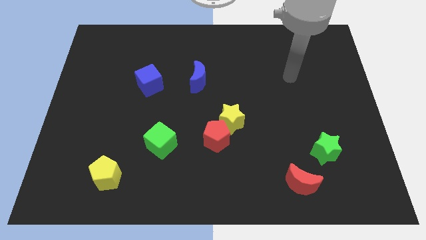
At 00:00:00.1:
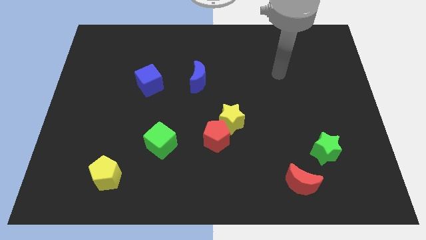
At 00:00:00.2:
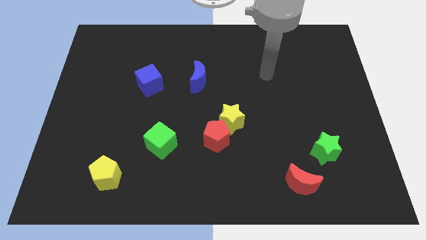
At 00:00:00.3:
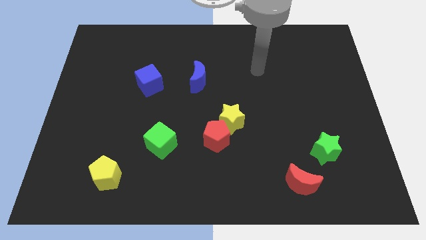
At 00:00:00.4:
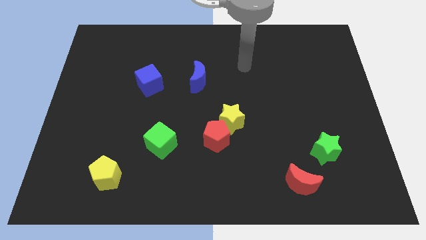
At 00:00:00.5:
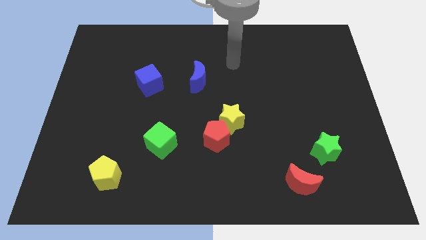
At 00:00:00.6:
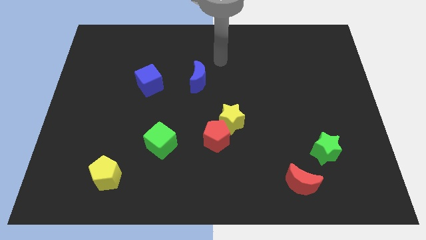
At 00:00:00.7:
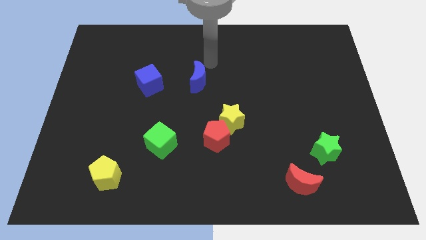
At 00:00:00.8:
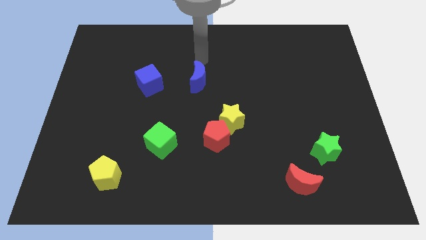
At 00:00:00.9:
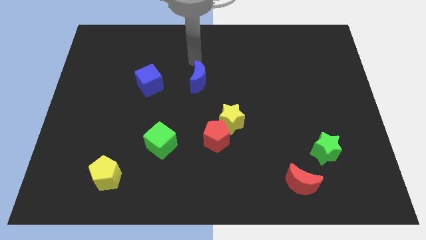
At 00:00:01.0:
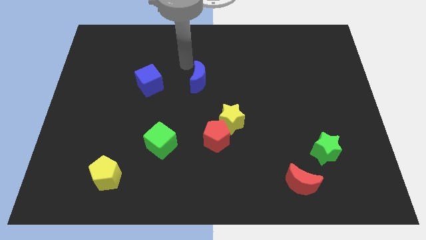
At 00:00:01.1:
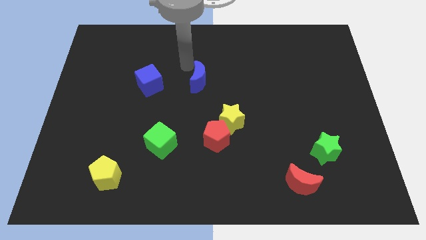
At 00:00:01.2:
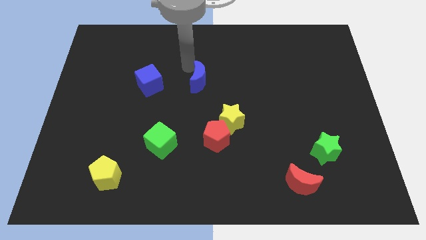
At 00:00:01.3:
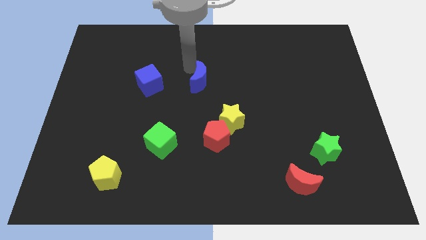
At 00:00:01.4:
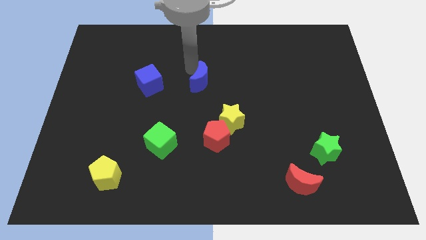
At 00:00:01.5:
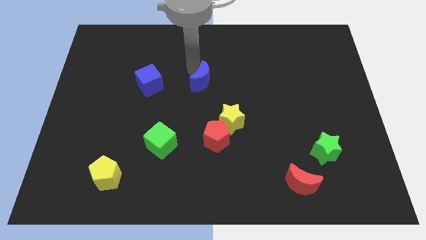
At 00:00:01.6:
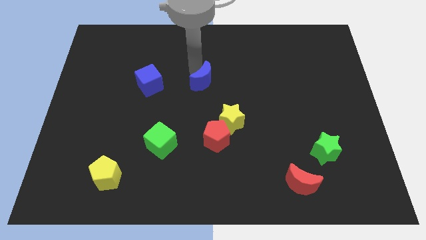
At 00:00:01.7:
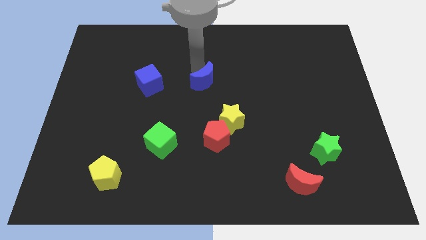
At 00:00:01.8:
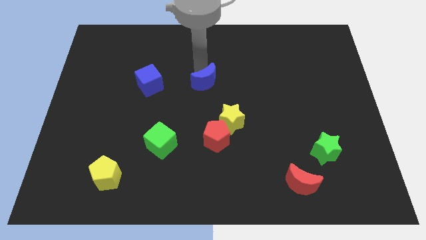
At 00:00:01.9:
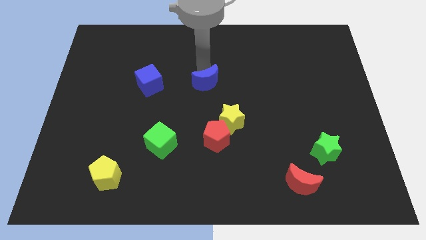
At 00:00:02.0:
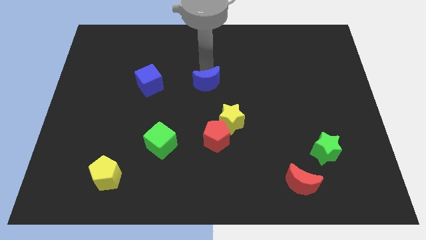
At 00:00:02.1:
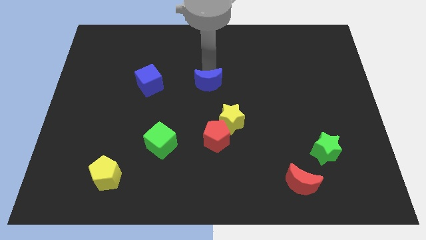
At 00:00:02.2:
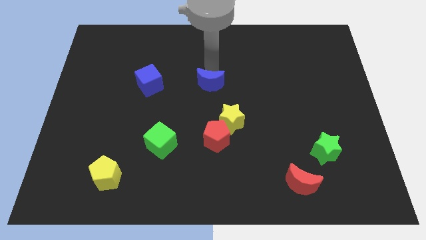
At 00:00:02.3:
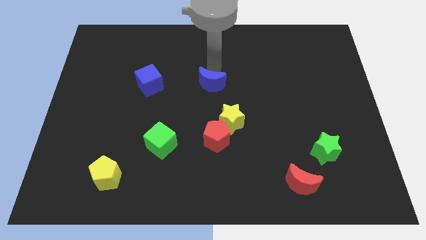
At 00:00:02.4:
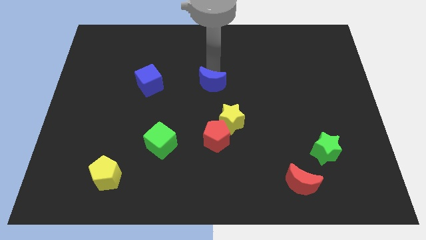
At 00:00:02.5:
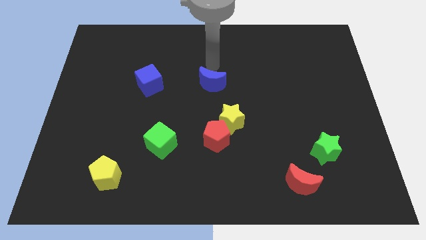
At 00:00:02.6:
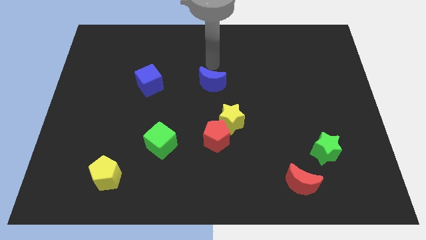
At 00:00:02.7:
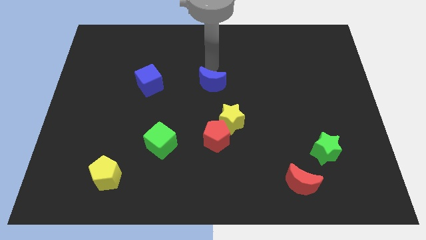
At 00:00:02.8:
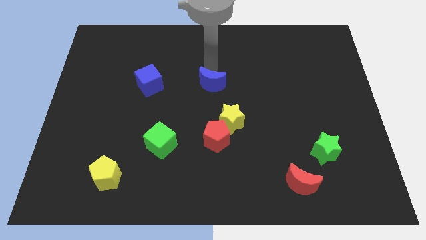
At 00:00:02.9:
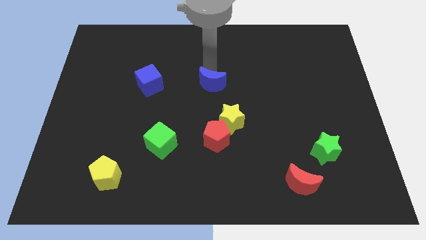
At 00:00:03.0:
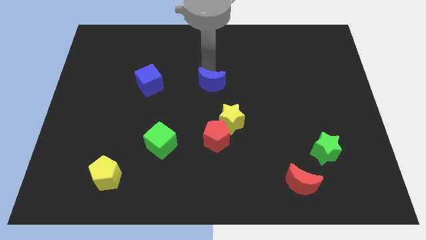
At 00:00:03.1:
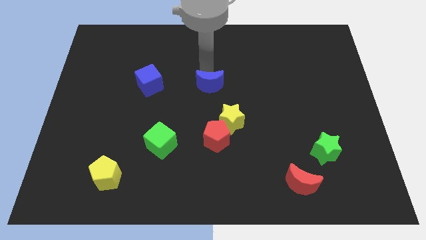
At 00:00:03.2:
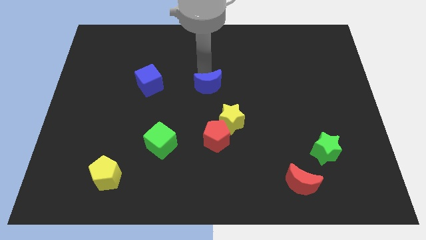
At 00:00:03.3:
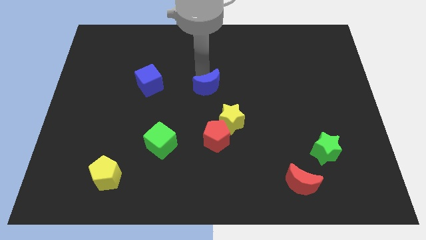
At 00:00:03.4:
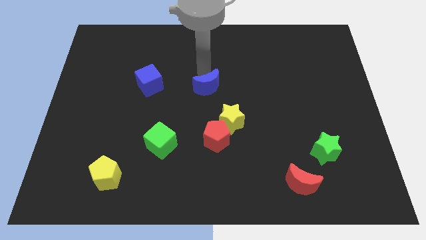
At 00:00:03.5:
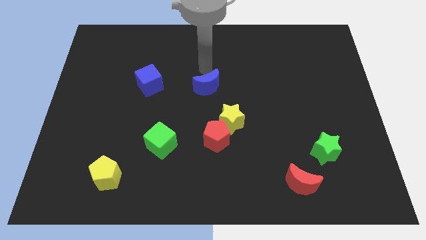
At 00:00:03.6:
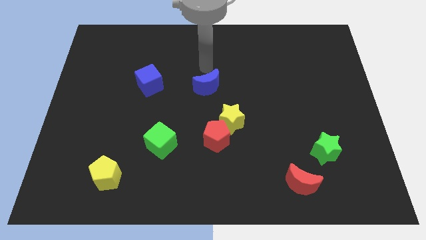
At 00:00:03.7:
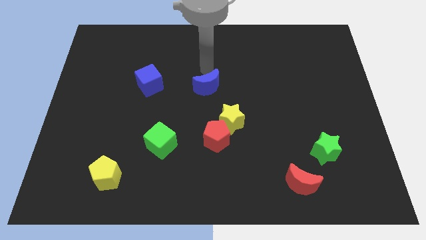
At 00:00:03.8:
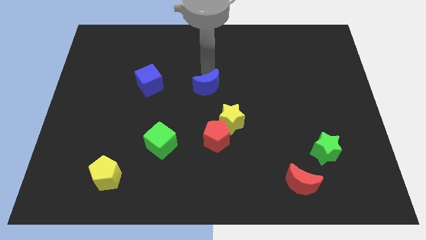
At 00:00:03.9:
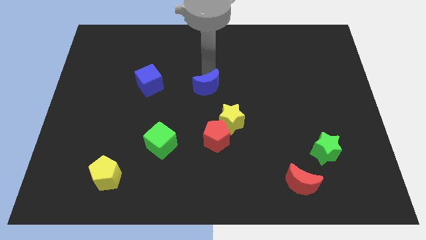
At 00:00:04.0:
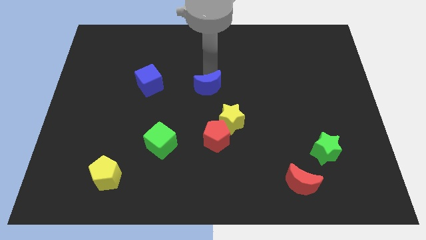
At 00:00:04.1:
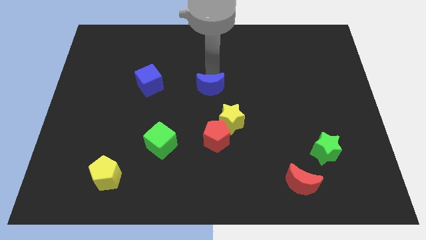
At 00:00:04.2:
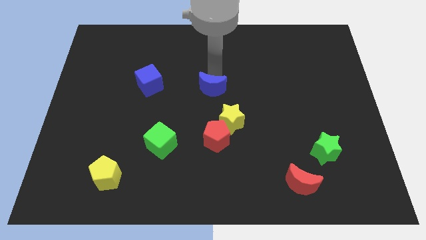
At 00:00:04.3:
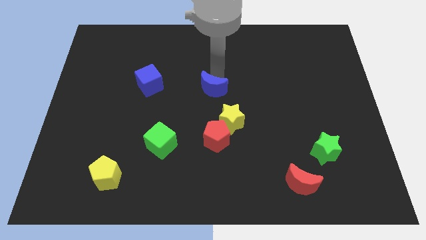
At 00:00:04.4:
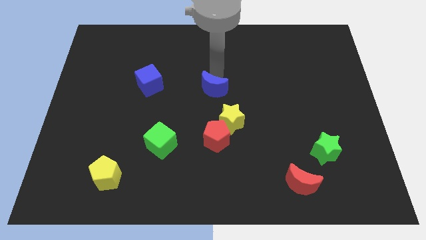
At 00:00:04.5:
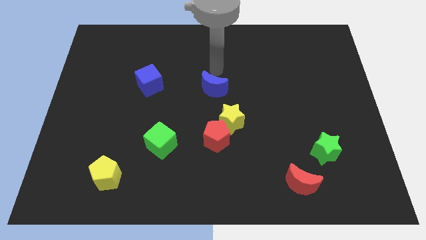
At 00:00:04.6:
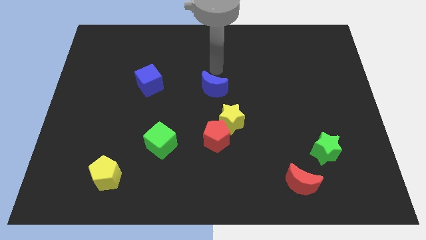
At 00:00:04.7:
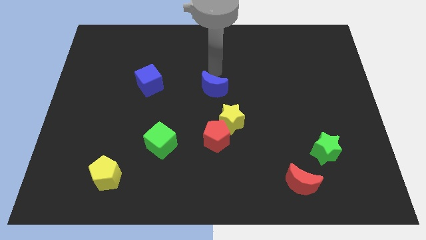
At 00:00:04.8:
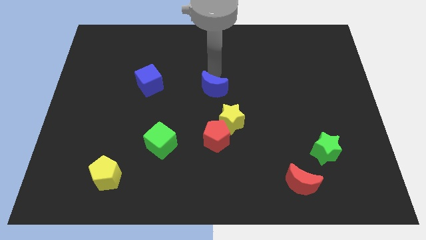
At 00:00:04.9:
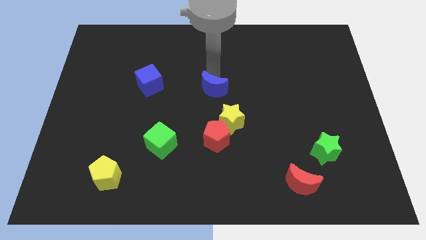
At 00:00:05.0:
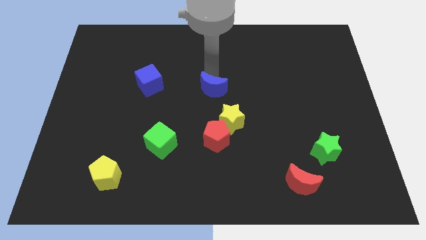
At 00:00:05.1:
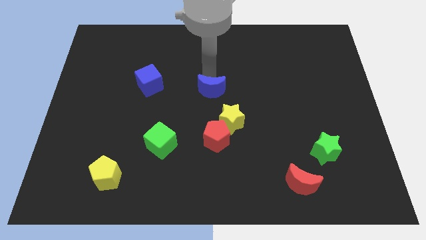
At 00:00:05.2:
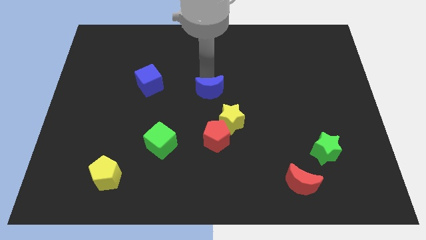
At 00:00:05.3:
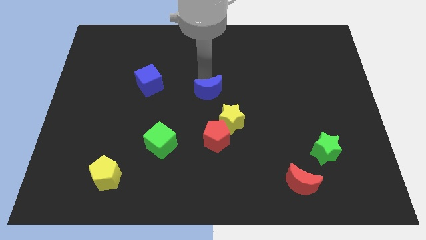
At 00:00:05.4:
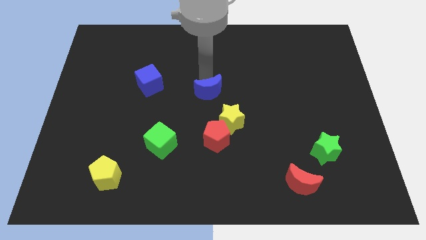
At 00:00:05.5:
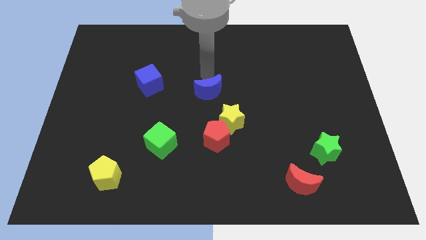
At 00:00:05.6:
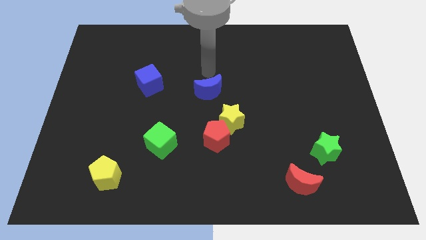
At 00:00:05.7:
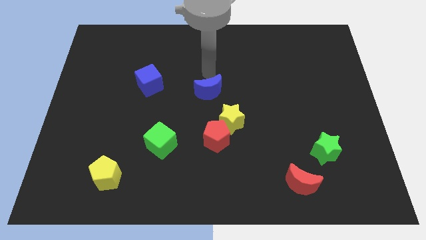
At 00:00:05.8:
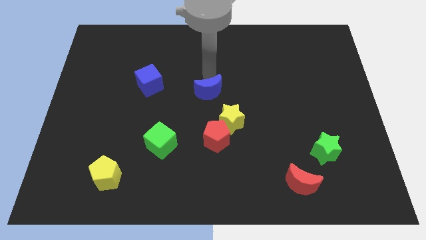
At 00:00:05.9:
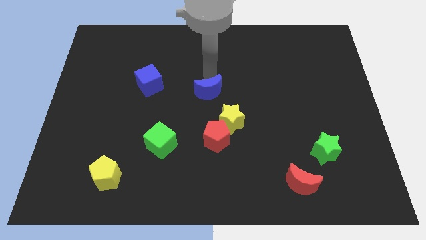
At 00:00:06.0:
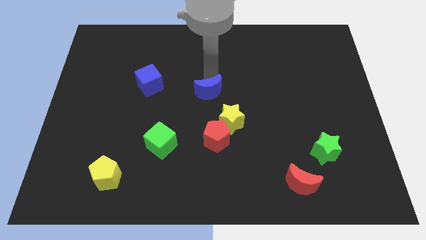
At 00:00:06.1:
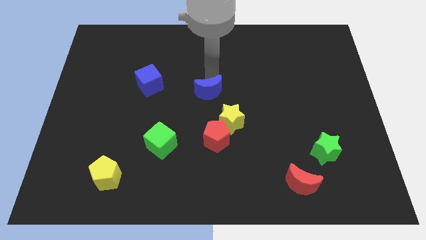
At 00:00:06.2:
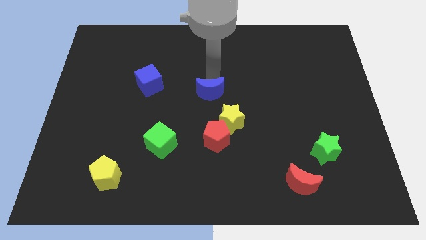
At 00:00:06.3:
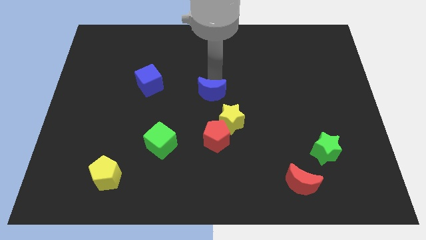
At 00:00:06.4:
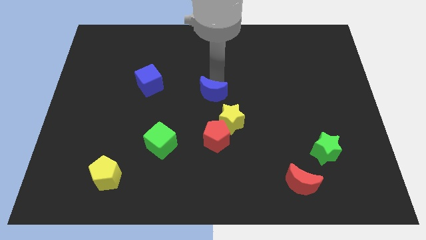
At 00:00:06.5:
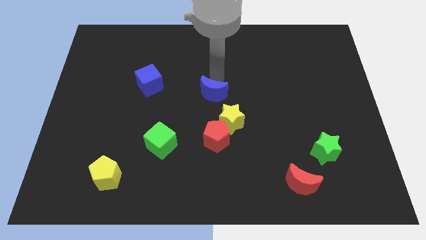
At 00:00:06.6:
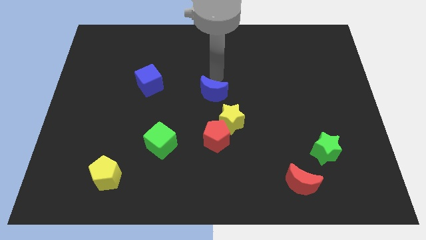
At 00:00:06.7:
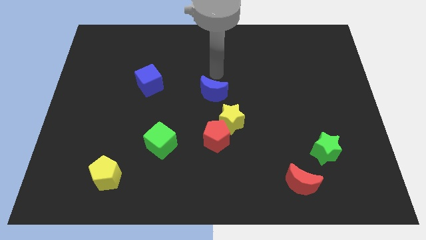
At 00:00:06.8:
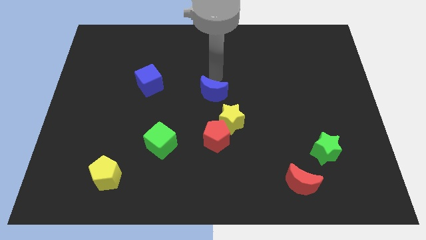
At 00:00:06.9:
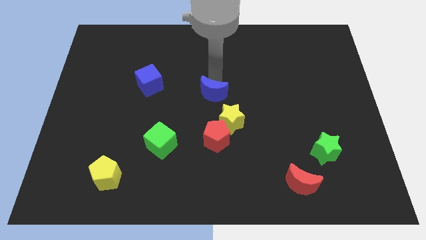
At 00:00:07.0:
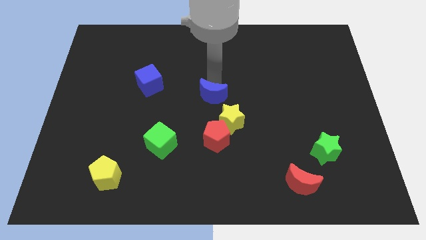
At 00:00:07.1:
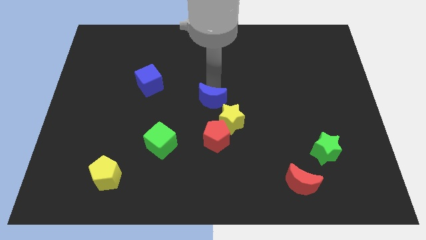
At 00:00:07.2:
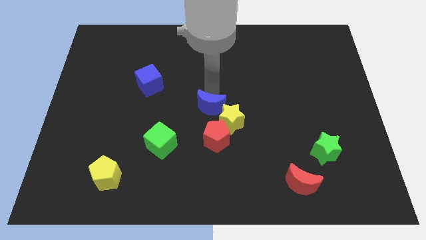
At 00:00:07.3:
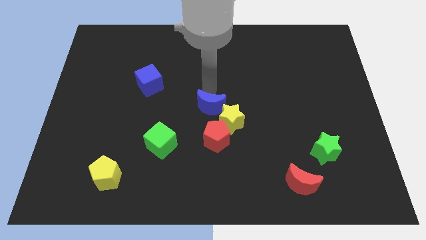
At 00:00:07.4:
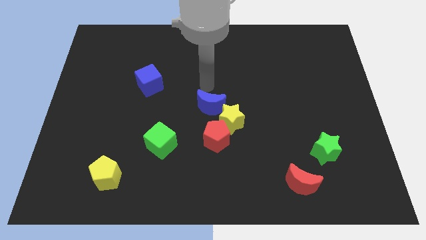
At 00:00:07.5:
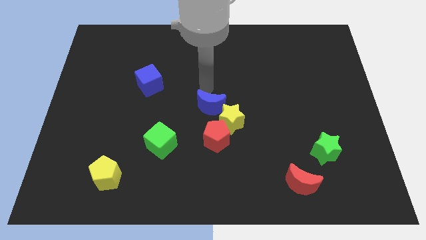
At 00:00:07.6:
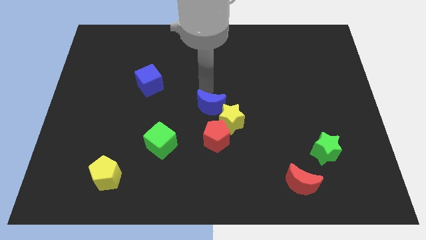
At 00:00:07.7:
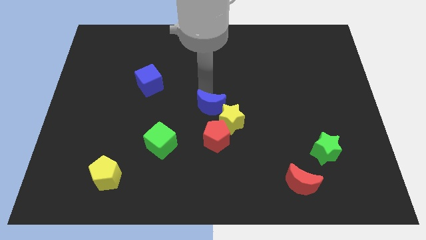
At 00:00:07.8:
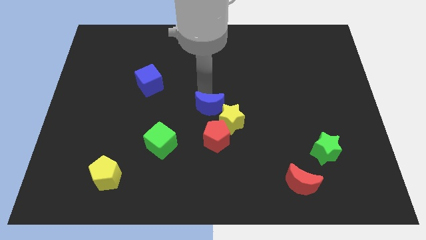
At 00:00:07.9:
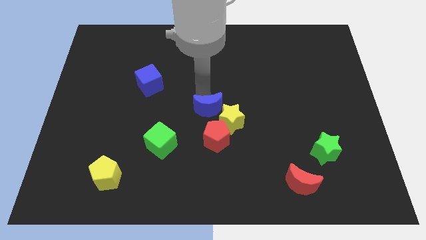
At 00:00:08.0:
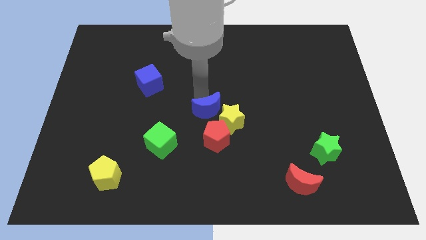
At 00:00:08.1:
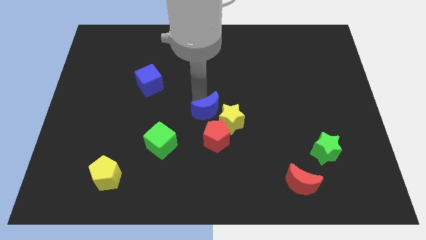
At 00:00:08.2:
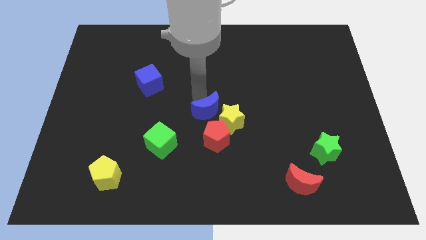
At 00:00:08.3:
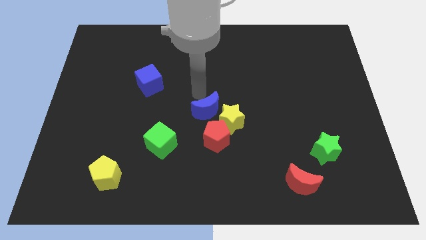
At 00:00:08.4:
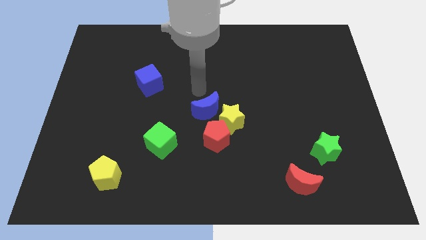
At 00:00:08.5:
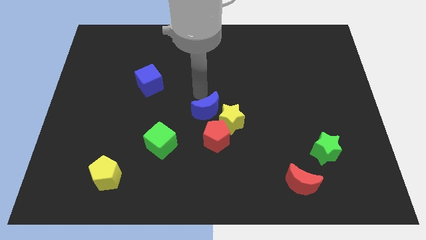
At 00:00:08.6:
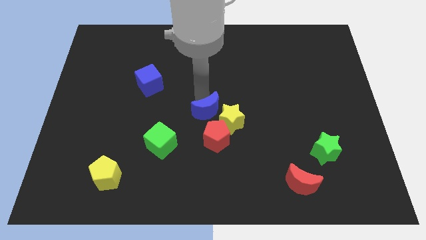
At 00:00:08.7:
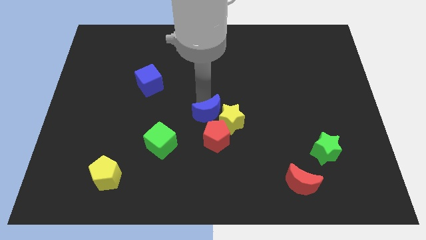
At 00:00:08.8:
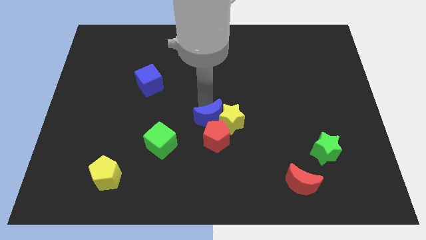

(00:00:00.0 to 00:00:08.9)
push the blue moon to the red pentagon
